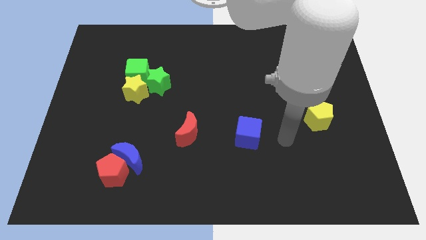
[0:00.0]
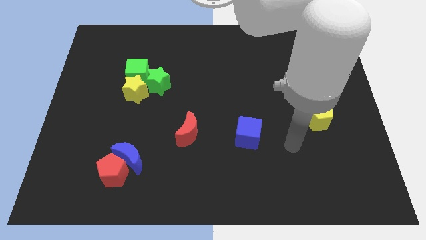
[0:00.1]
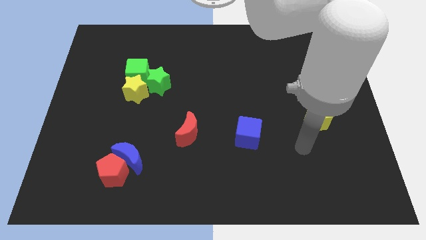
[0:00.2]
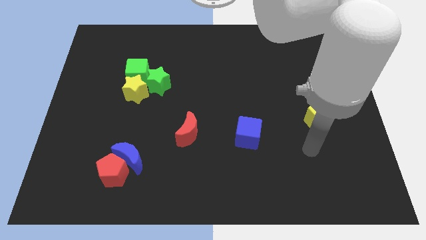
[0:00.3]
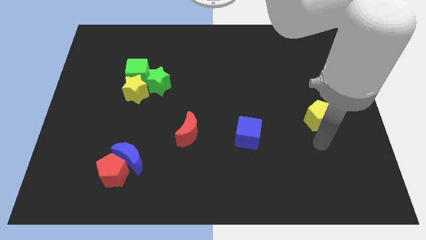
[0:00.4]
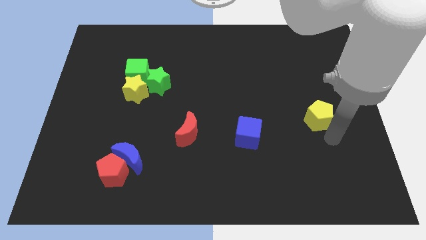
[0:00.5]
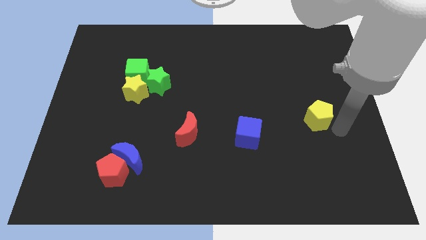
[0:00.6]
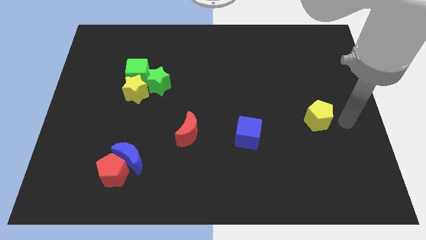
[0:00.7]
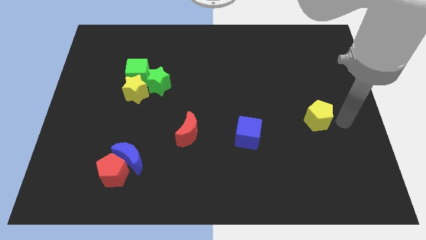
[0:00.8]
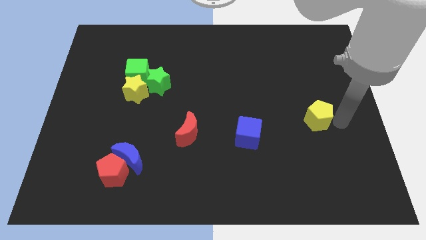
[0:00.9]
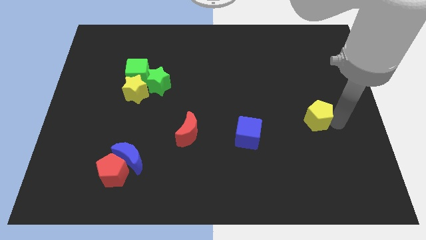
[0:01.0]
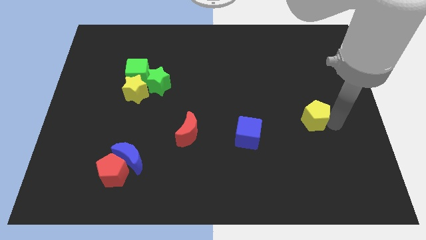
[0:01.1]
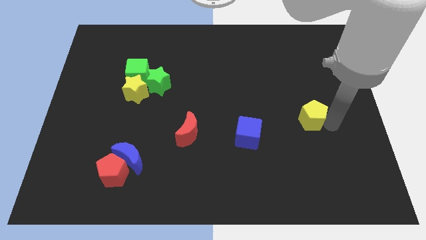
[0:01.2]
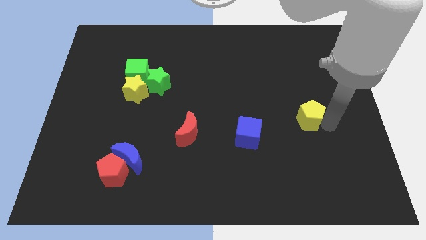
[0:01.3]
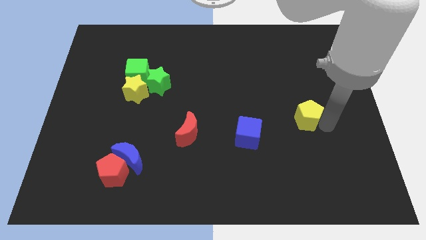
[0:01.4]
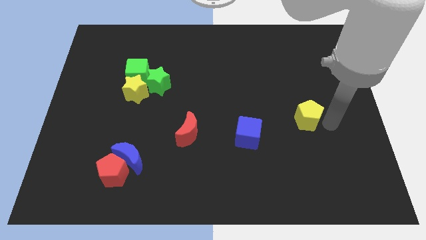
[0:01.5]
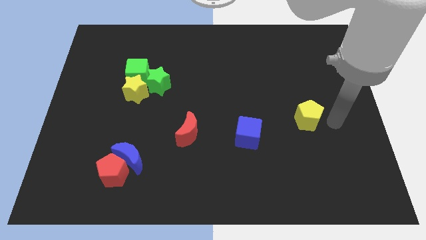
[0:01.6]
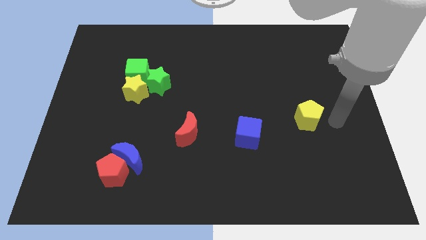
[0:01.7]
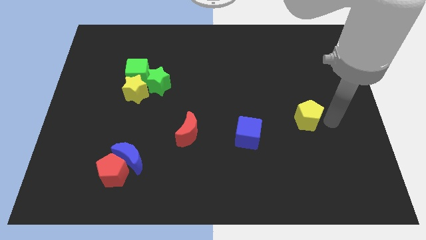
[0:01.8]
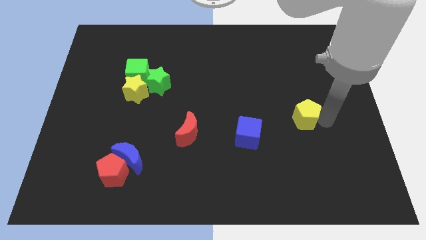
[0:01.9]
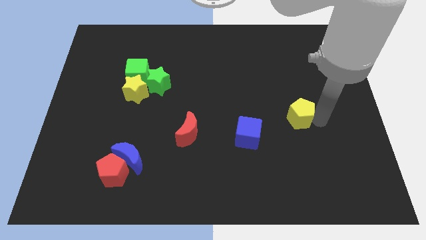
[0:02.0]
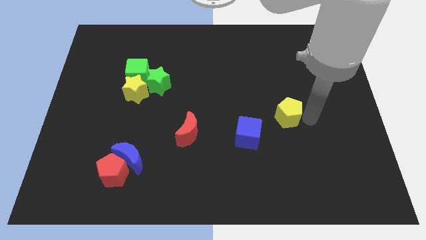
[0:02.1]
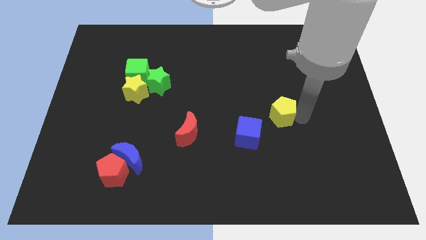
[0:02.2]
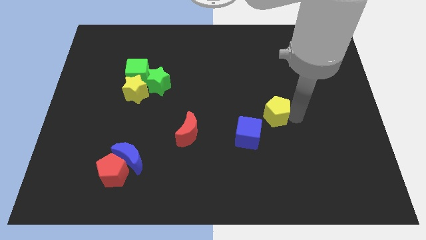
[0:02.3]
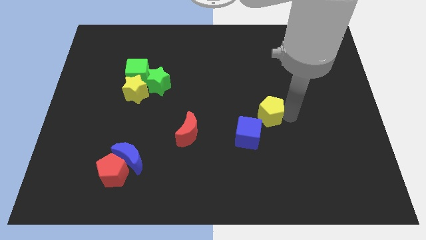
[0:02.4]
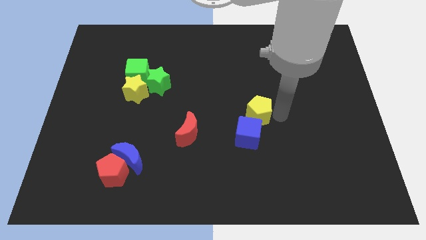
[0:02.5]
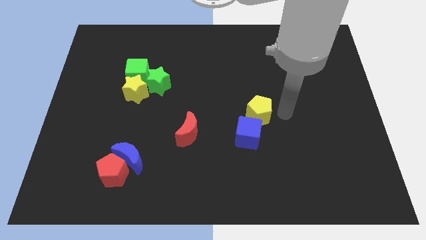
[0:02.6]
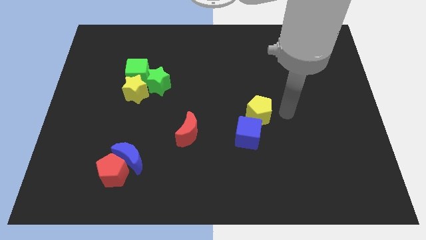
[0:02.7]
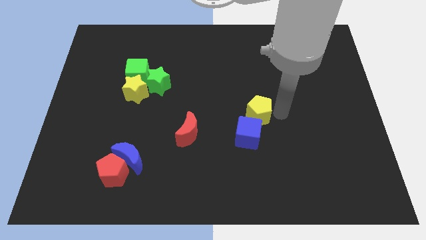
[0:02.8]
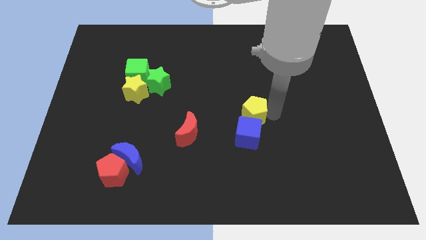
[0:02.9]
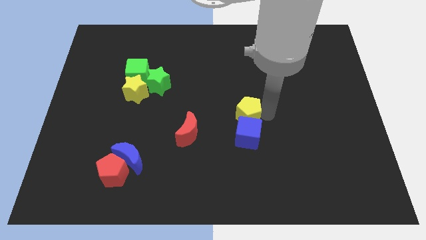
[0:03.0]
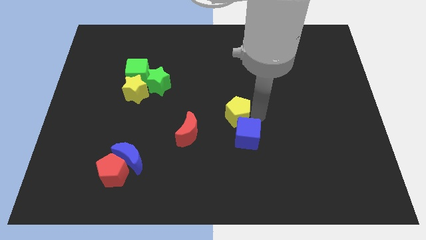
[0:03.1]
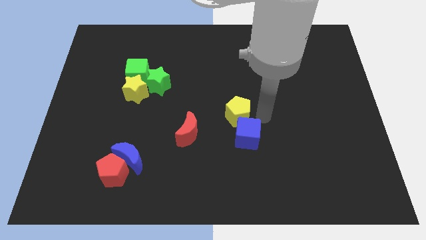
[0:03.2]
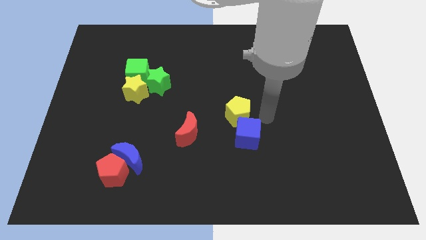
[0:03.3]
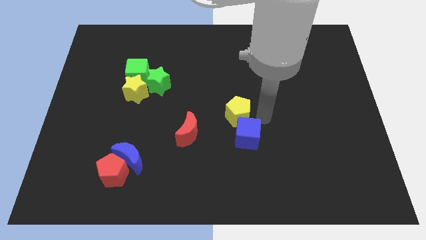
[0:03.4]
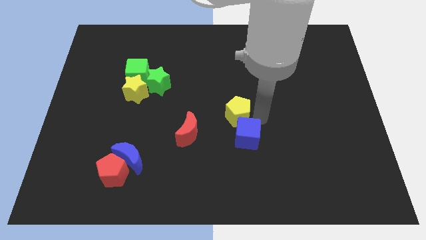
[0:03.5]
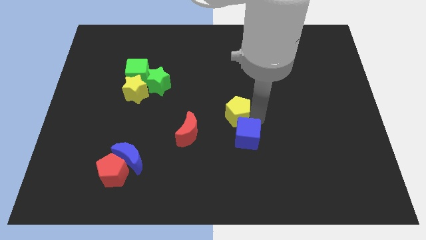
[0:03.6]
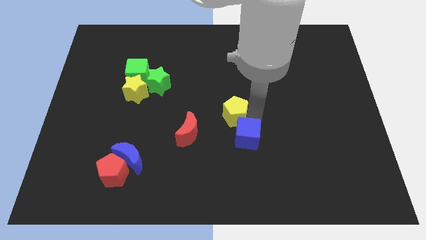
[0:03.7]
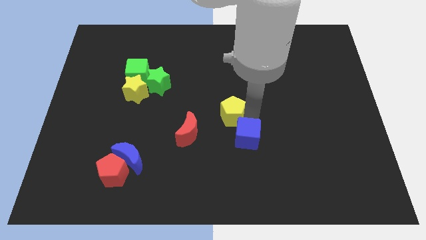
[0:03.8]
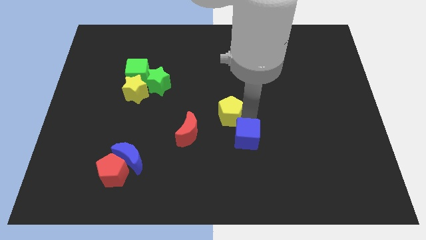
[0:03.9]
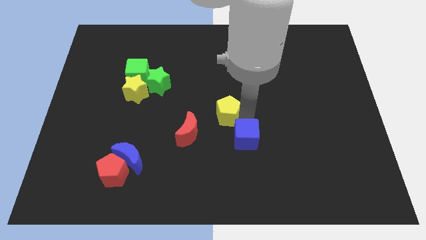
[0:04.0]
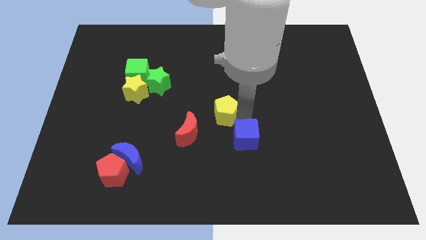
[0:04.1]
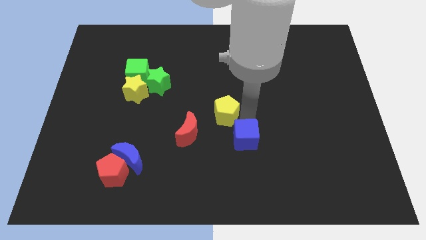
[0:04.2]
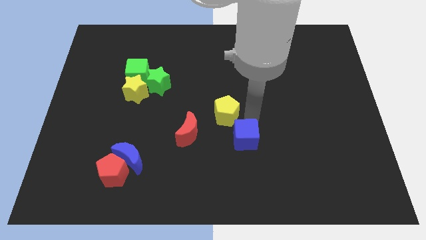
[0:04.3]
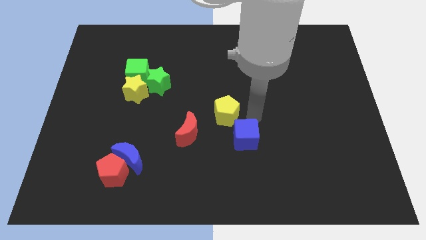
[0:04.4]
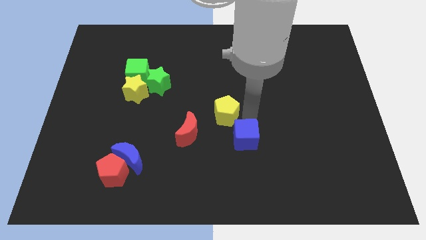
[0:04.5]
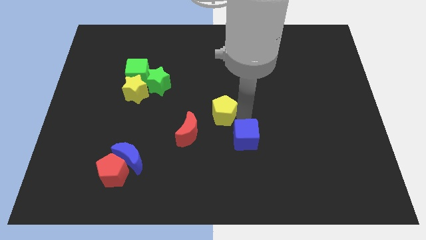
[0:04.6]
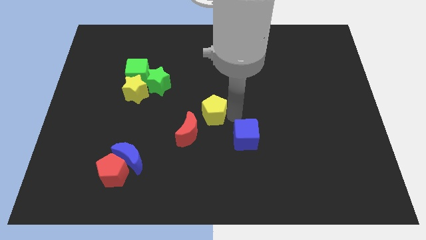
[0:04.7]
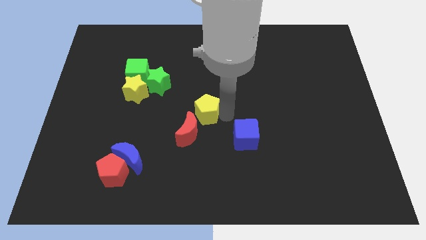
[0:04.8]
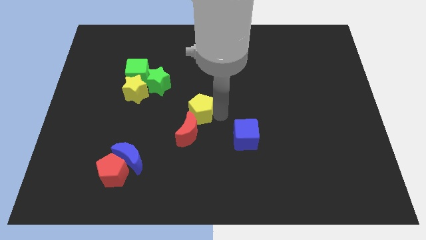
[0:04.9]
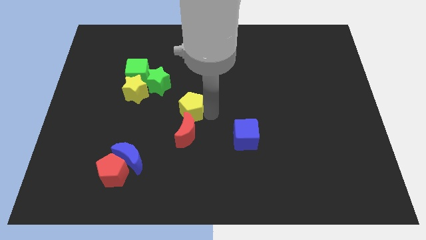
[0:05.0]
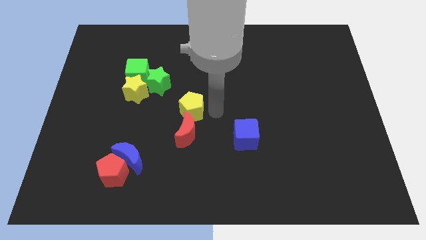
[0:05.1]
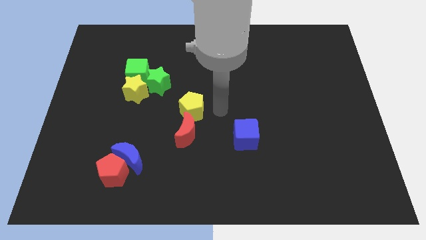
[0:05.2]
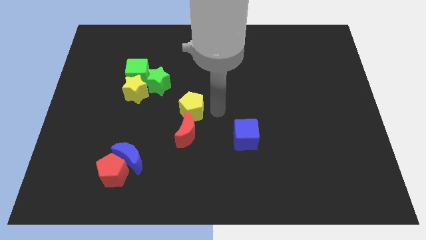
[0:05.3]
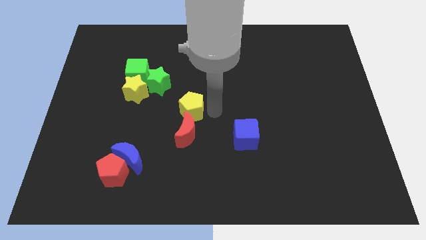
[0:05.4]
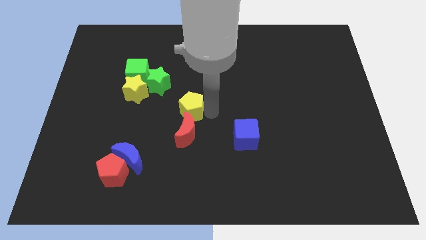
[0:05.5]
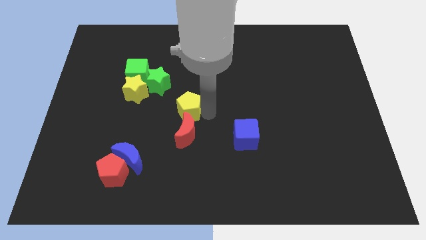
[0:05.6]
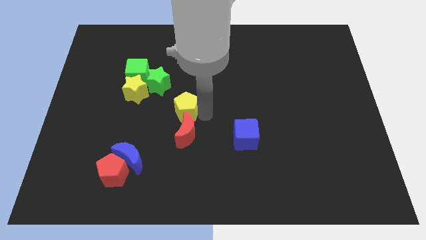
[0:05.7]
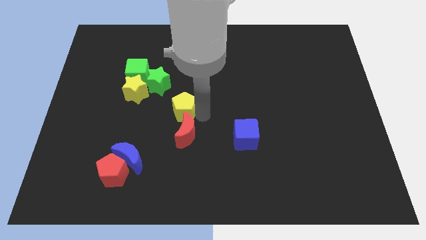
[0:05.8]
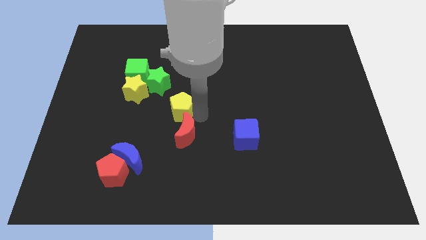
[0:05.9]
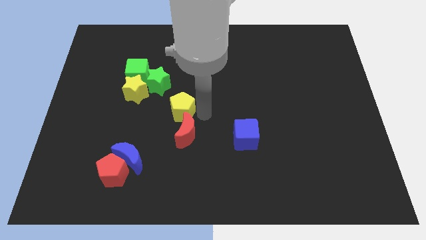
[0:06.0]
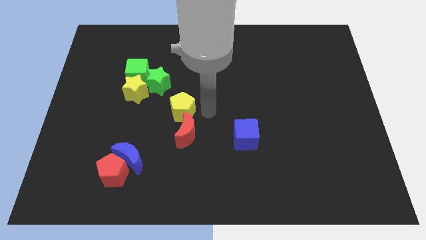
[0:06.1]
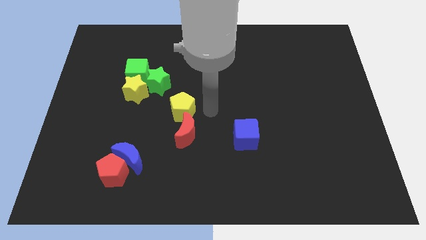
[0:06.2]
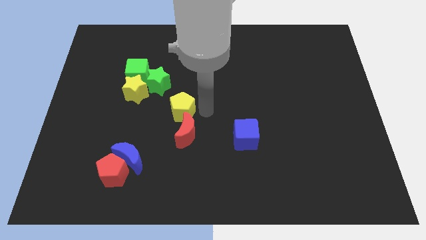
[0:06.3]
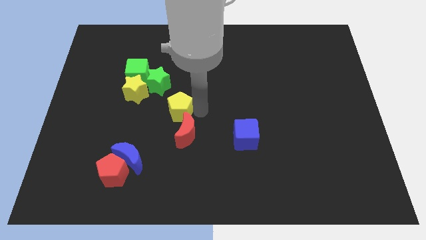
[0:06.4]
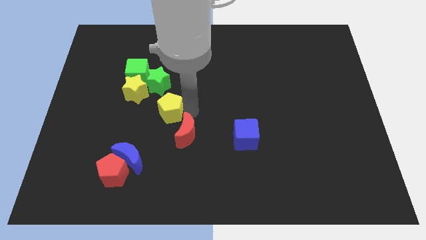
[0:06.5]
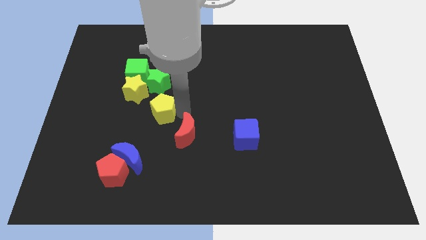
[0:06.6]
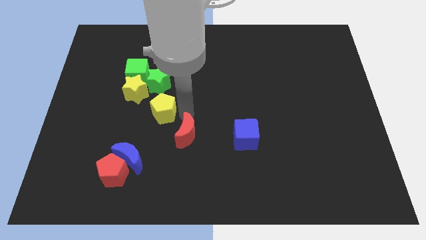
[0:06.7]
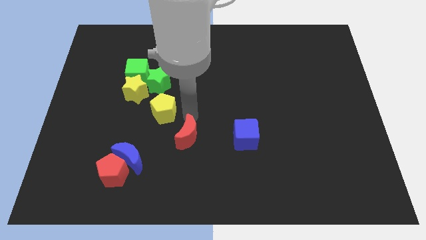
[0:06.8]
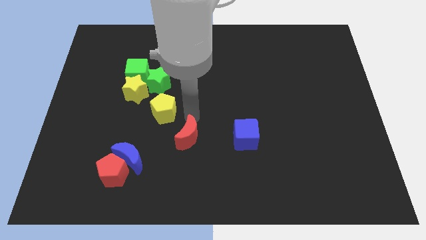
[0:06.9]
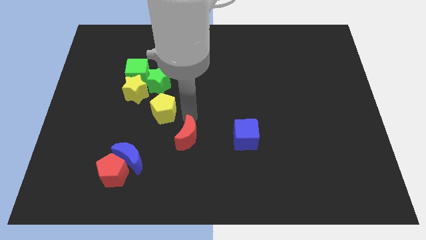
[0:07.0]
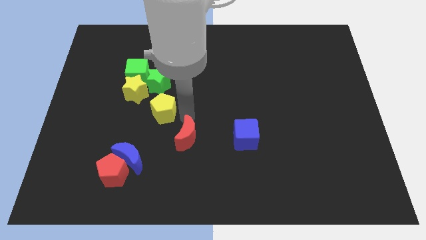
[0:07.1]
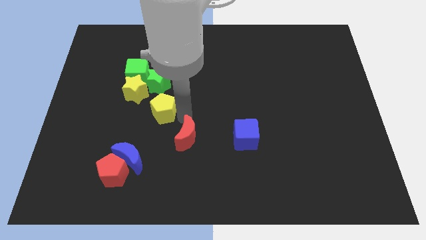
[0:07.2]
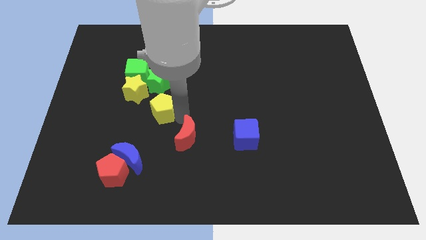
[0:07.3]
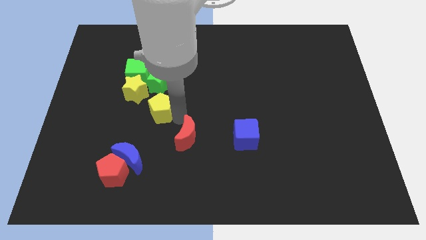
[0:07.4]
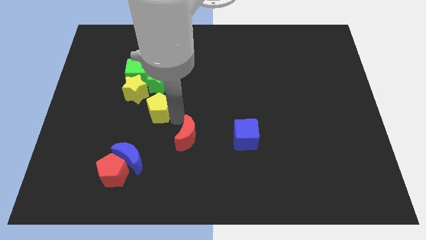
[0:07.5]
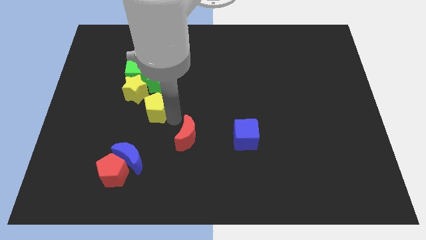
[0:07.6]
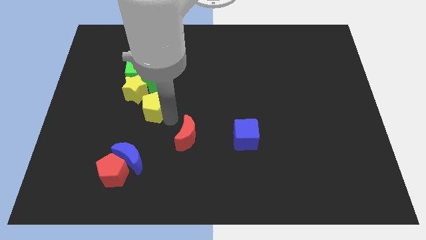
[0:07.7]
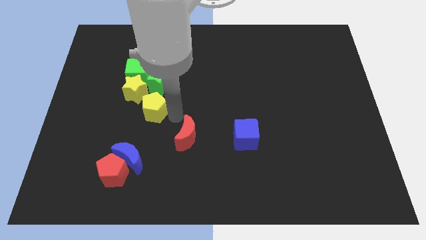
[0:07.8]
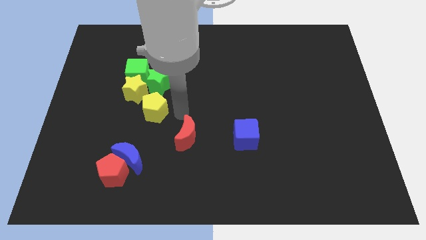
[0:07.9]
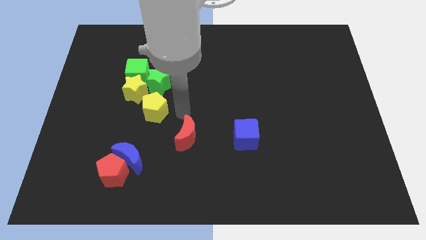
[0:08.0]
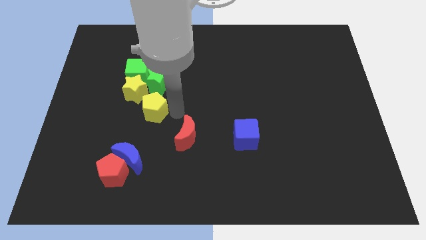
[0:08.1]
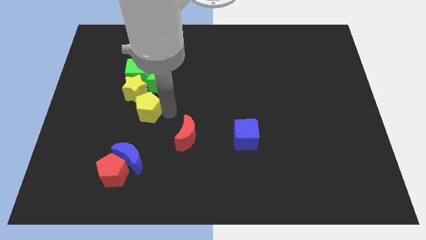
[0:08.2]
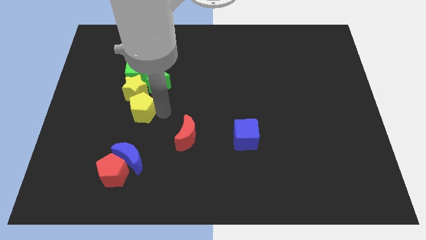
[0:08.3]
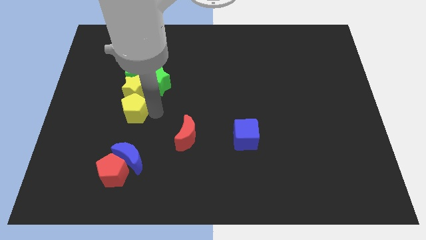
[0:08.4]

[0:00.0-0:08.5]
move the yellow pentagon to the bottom left of the yellow star
